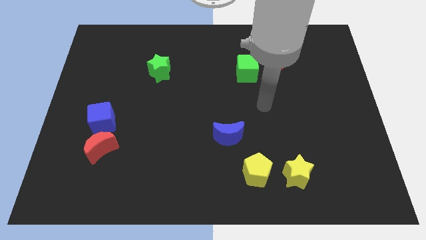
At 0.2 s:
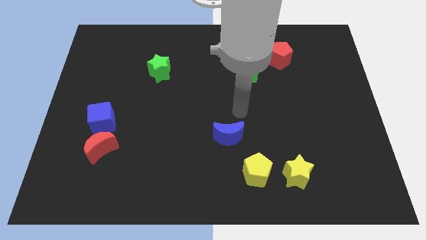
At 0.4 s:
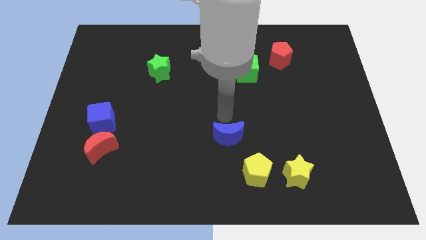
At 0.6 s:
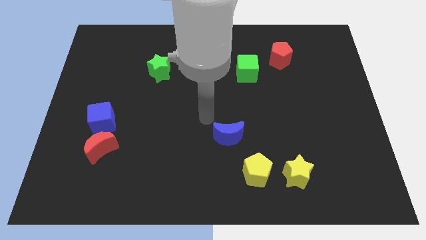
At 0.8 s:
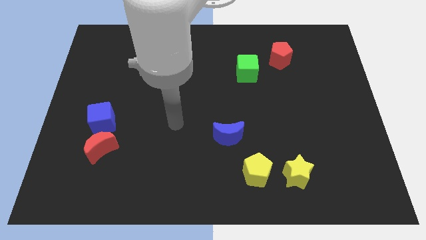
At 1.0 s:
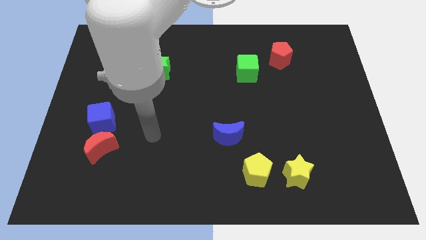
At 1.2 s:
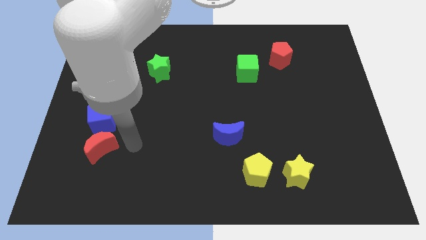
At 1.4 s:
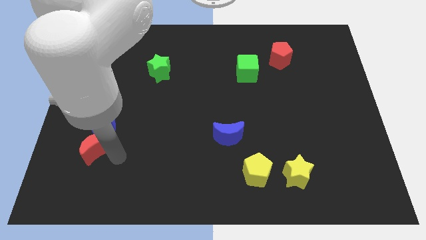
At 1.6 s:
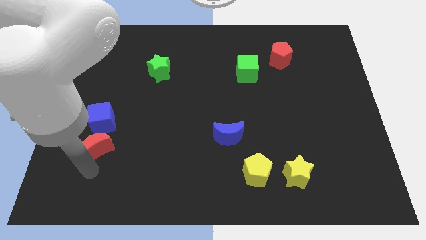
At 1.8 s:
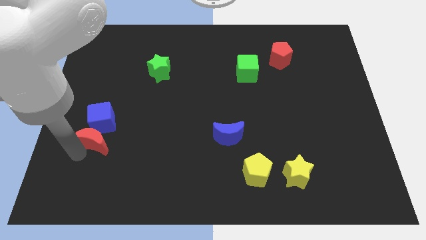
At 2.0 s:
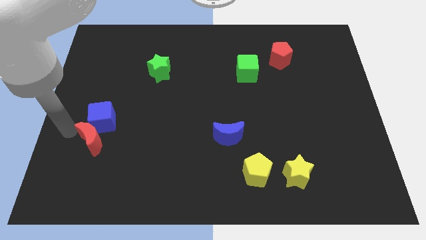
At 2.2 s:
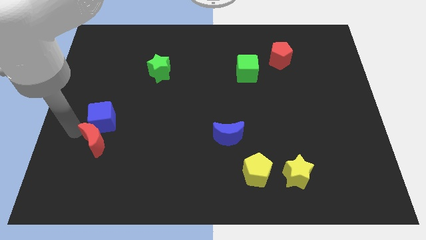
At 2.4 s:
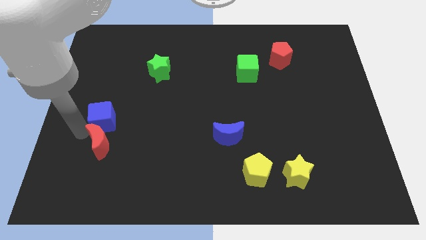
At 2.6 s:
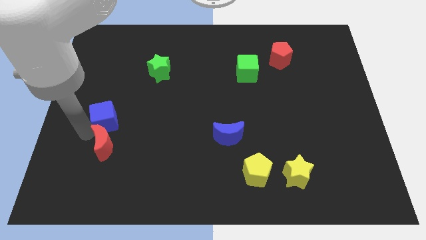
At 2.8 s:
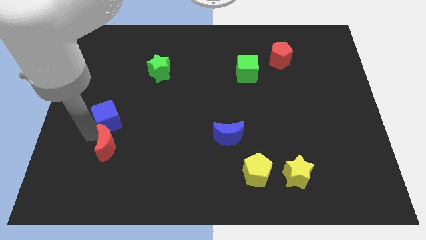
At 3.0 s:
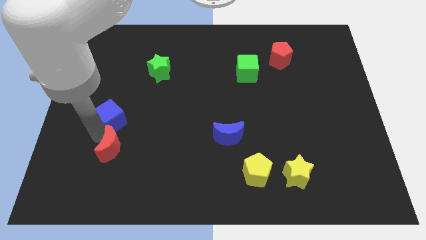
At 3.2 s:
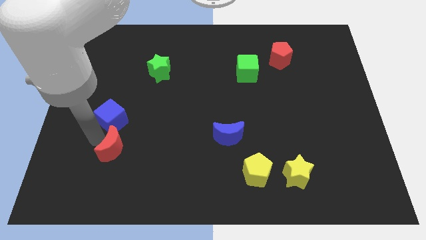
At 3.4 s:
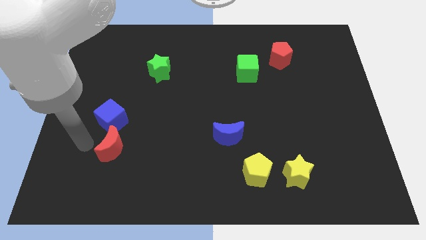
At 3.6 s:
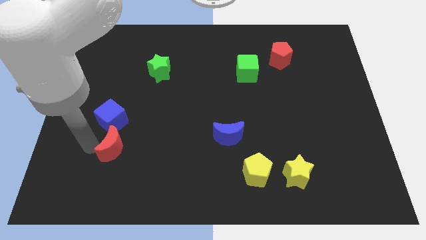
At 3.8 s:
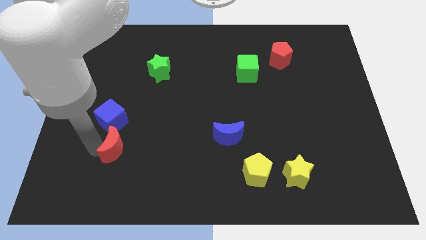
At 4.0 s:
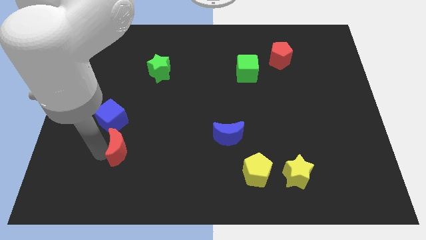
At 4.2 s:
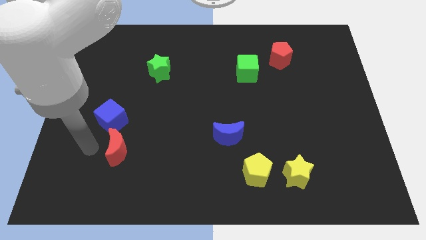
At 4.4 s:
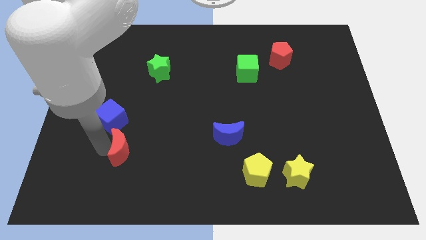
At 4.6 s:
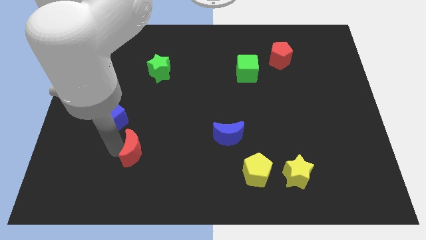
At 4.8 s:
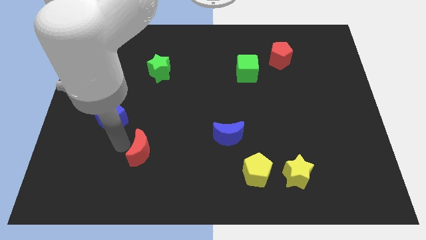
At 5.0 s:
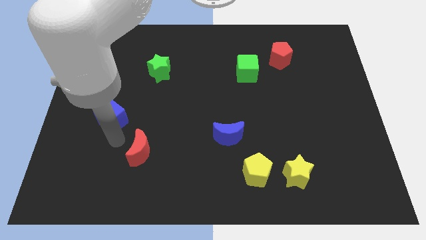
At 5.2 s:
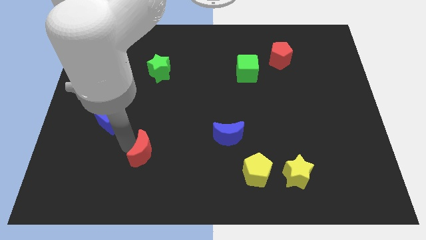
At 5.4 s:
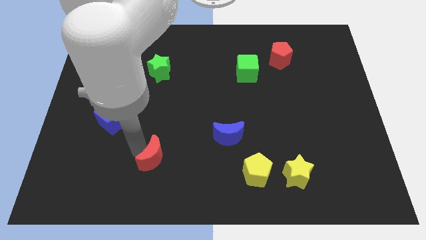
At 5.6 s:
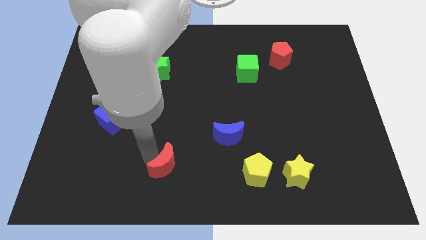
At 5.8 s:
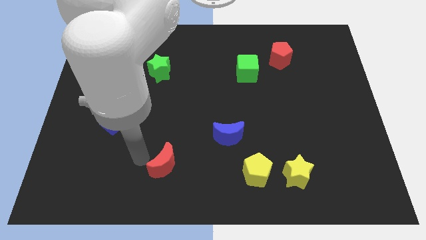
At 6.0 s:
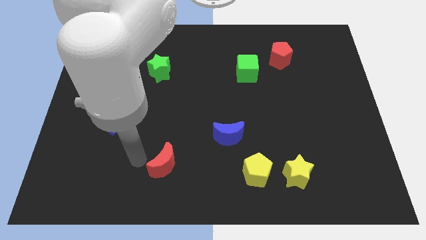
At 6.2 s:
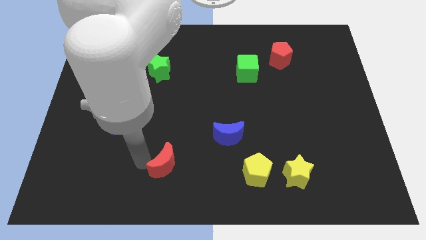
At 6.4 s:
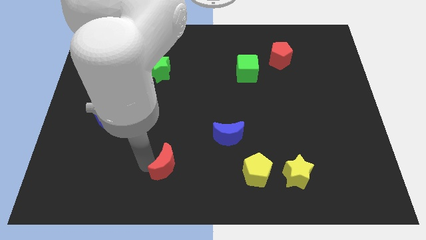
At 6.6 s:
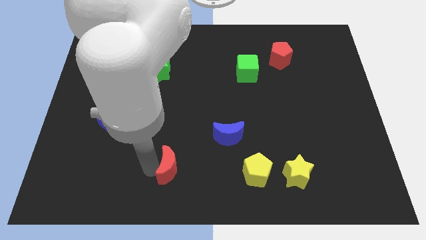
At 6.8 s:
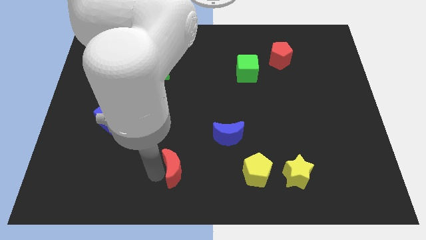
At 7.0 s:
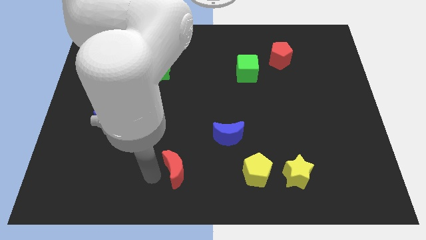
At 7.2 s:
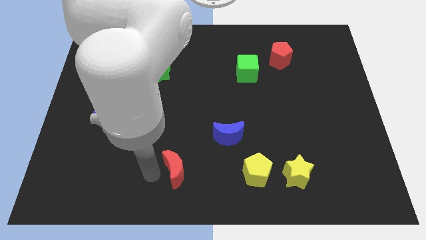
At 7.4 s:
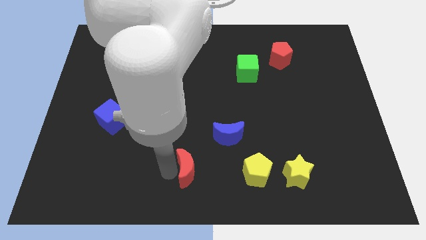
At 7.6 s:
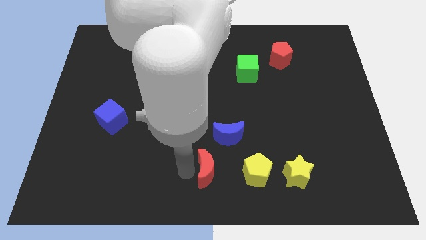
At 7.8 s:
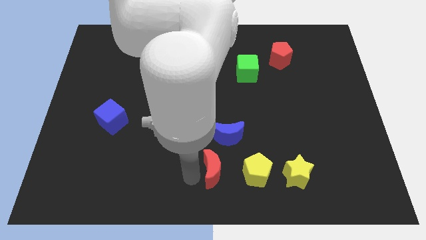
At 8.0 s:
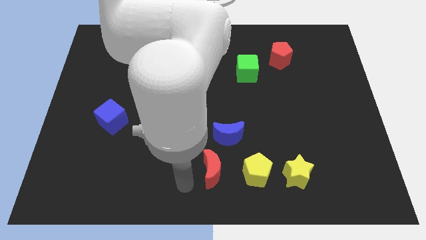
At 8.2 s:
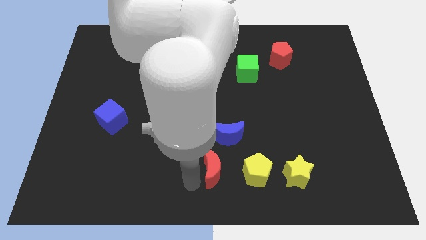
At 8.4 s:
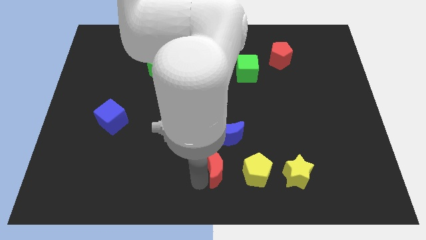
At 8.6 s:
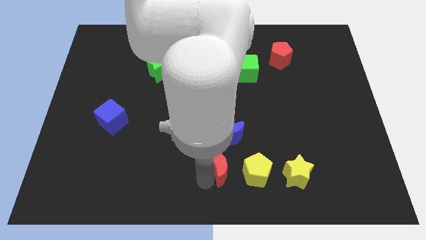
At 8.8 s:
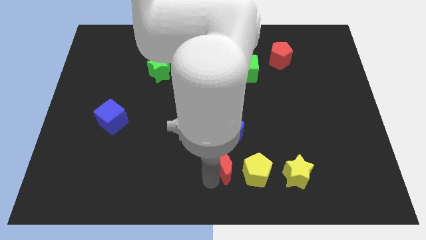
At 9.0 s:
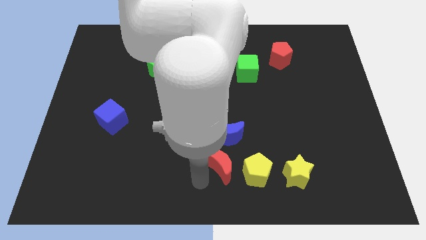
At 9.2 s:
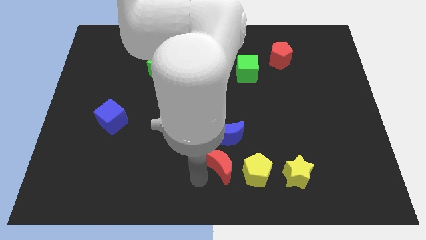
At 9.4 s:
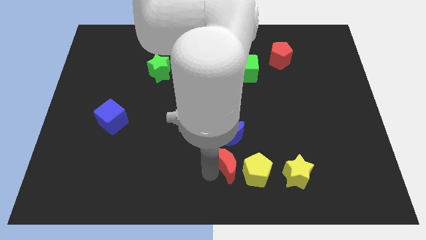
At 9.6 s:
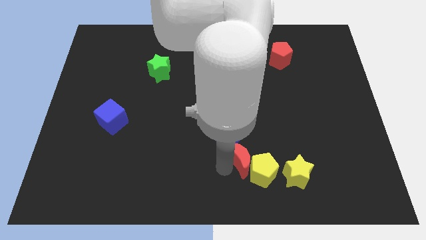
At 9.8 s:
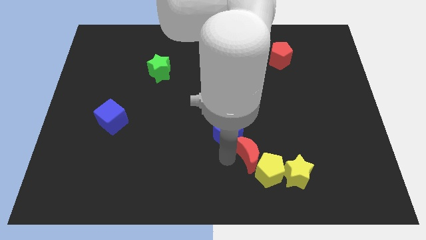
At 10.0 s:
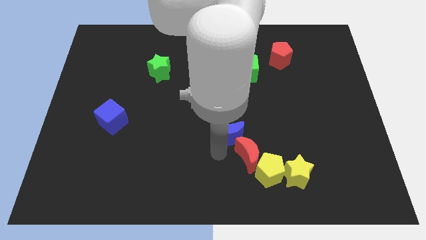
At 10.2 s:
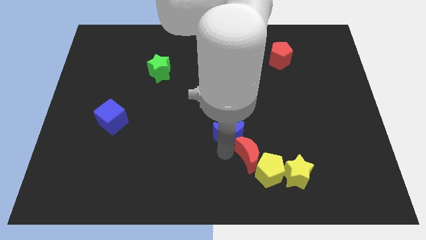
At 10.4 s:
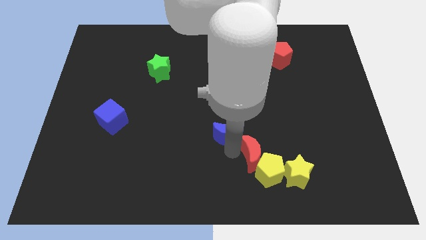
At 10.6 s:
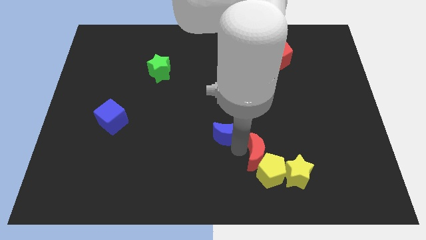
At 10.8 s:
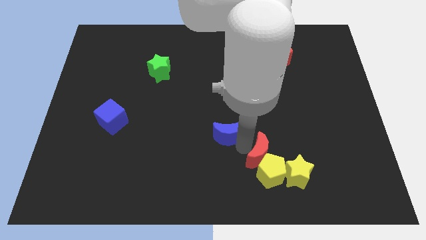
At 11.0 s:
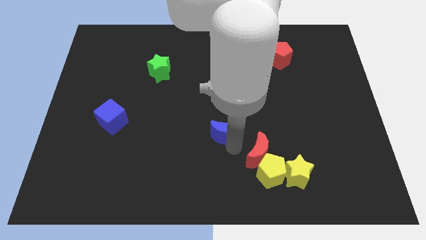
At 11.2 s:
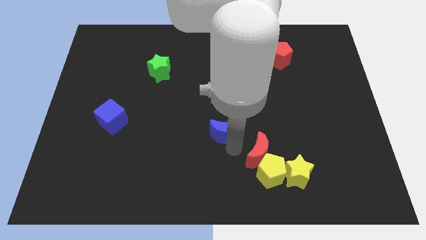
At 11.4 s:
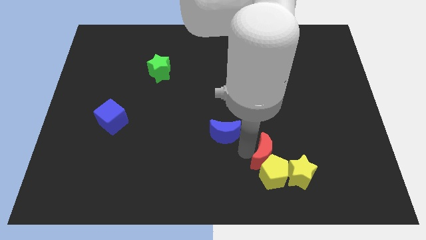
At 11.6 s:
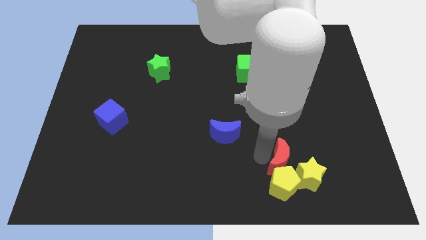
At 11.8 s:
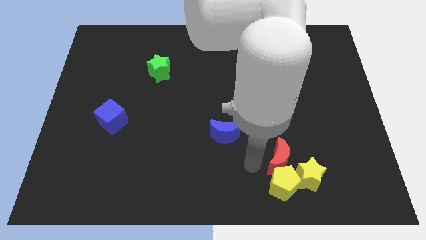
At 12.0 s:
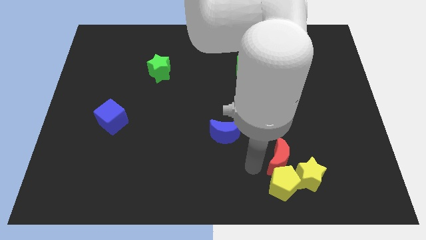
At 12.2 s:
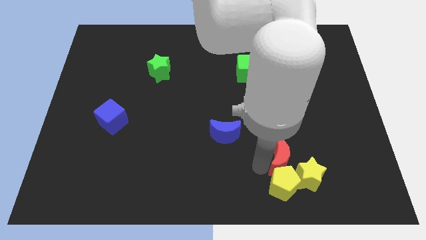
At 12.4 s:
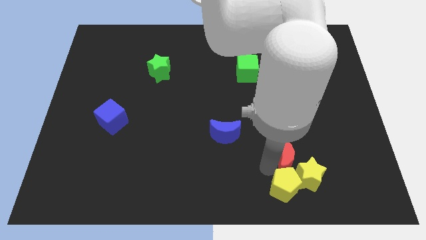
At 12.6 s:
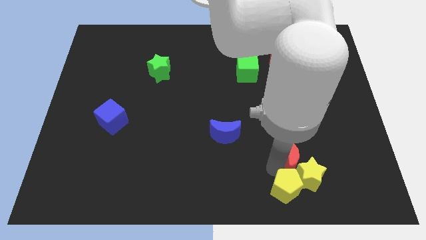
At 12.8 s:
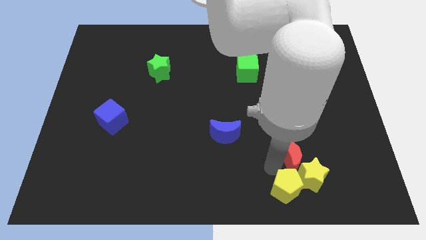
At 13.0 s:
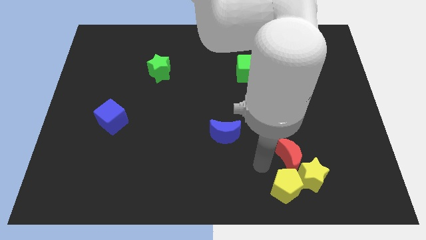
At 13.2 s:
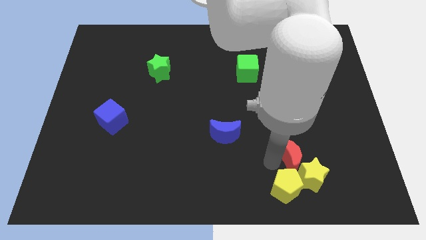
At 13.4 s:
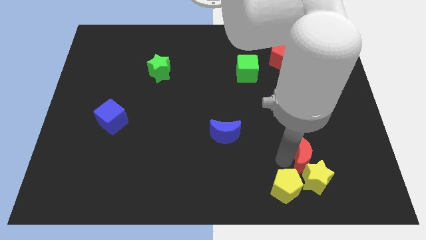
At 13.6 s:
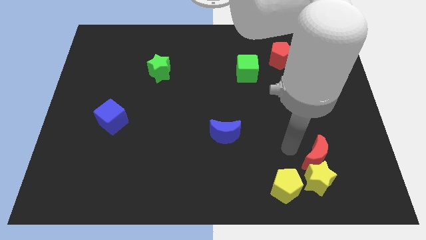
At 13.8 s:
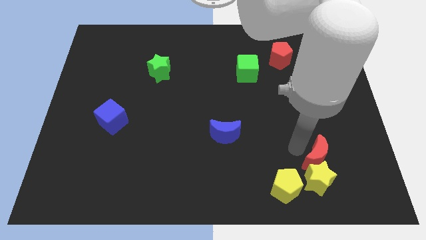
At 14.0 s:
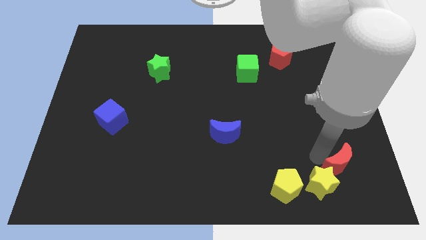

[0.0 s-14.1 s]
push the red moon right of the yellow star
